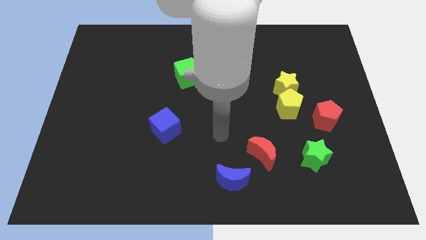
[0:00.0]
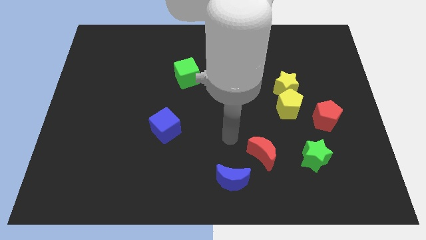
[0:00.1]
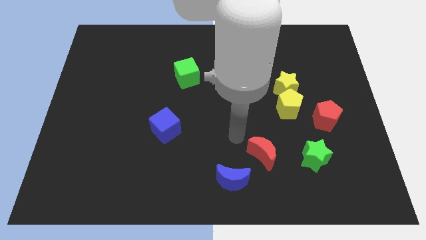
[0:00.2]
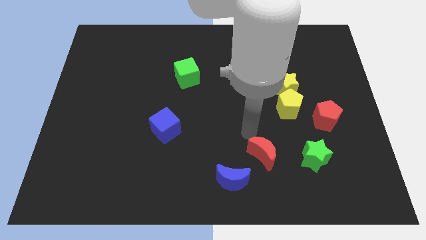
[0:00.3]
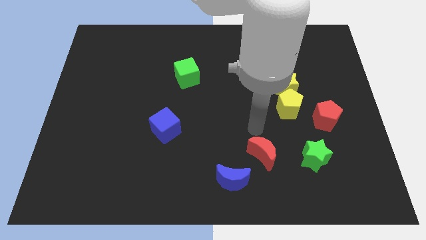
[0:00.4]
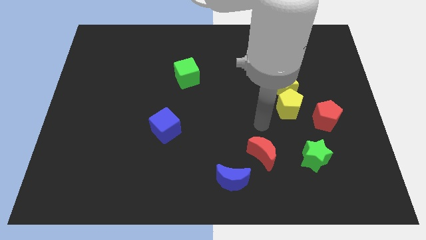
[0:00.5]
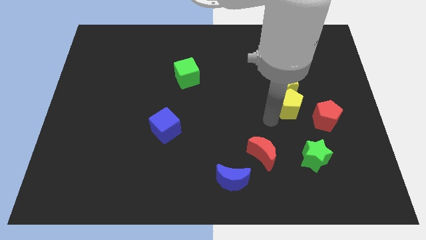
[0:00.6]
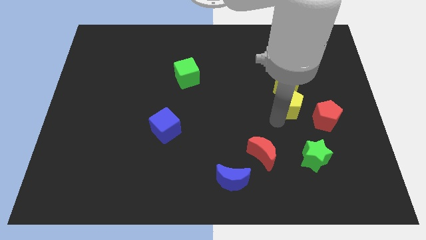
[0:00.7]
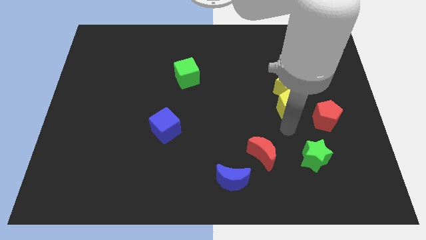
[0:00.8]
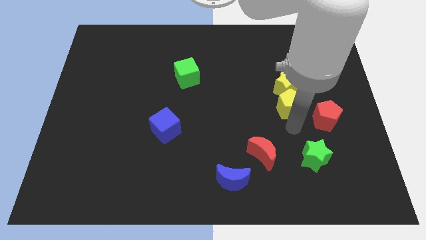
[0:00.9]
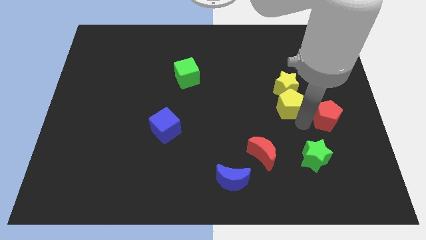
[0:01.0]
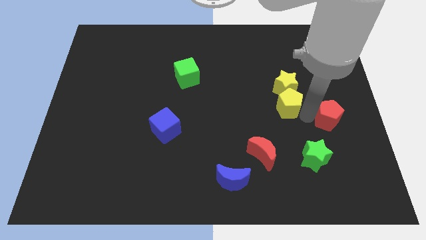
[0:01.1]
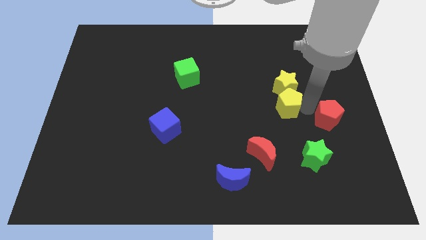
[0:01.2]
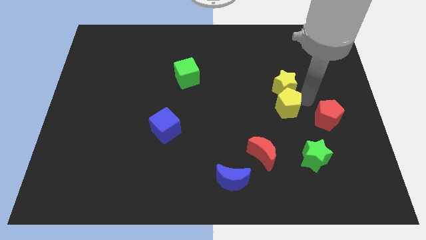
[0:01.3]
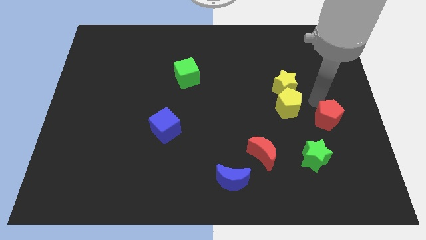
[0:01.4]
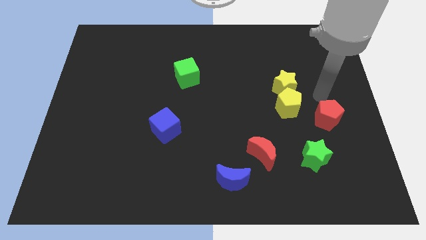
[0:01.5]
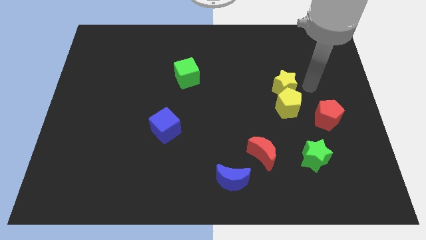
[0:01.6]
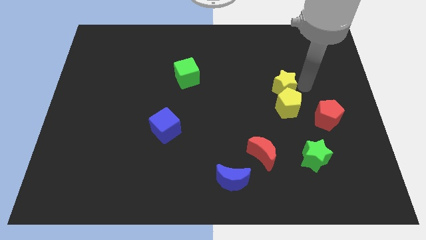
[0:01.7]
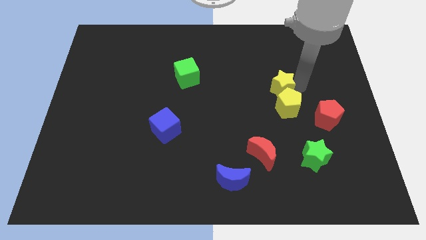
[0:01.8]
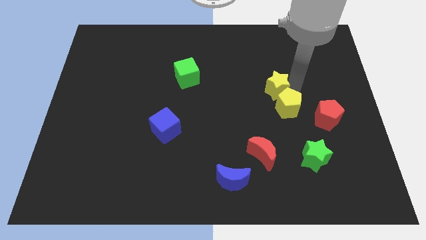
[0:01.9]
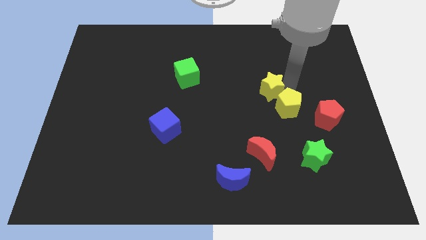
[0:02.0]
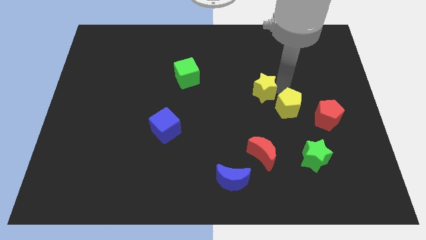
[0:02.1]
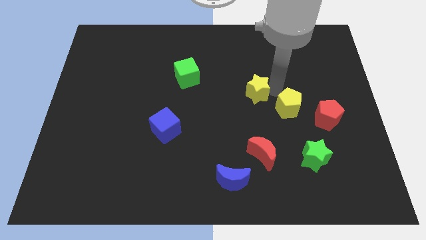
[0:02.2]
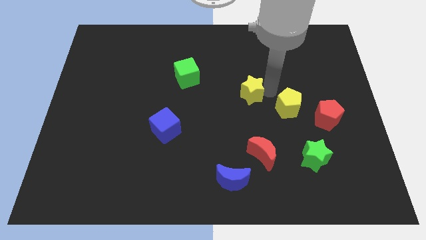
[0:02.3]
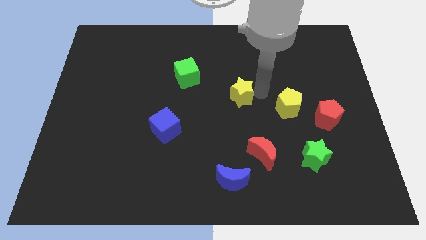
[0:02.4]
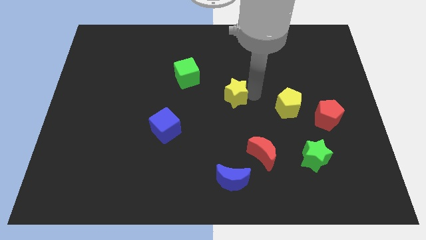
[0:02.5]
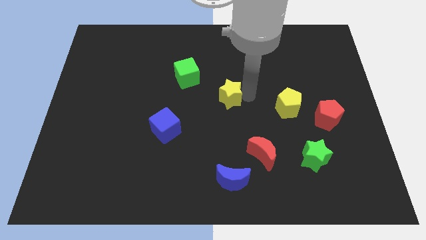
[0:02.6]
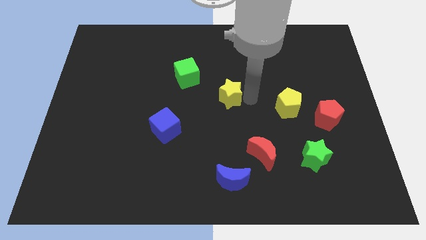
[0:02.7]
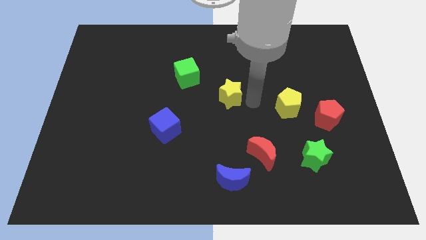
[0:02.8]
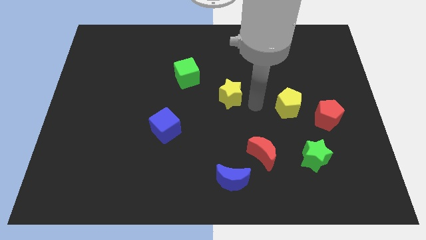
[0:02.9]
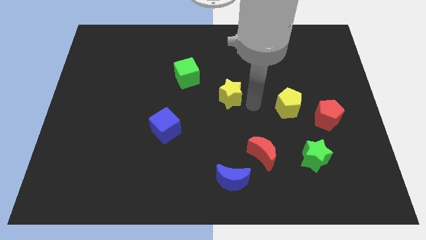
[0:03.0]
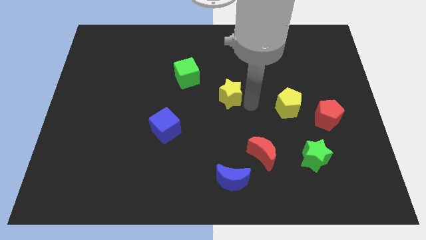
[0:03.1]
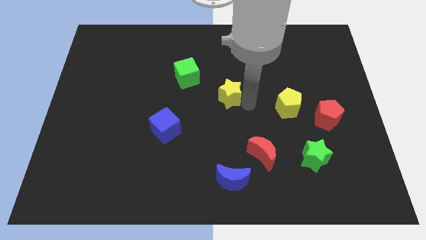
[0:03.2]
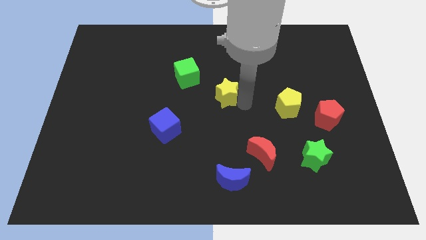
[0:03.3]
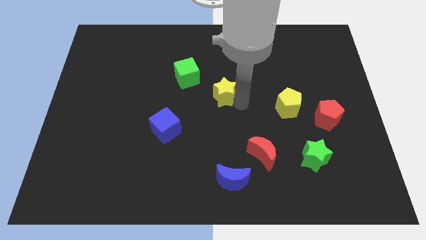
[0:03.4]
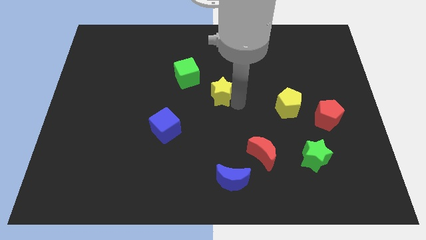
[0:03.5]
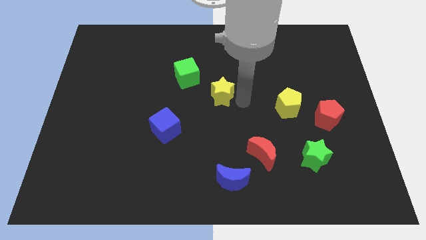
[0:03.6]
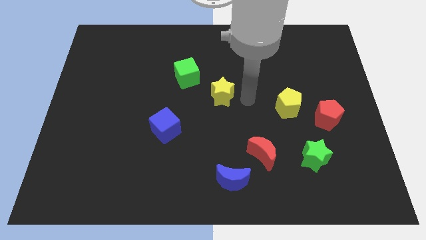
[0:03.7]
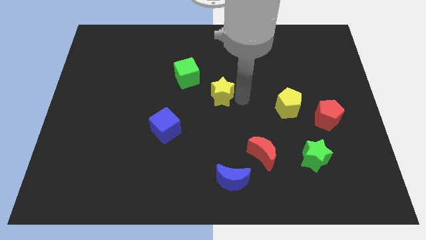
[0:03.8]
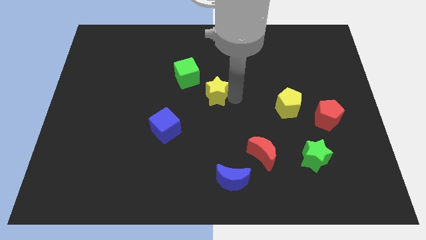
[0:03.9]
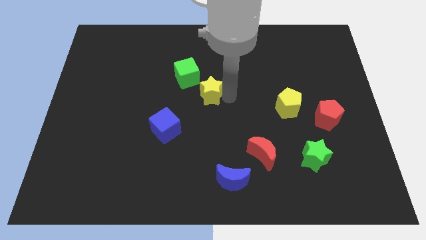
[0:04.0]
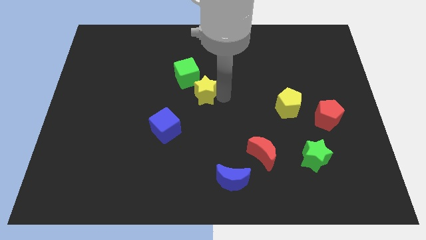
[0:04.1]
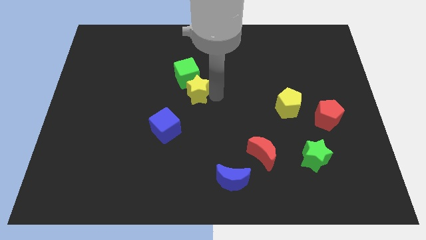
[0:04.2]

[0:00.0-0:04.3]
slide the yellow star left

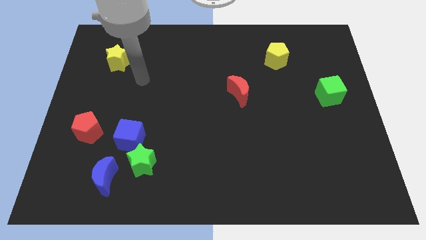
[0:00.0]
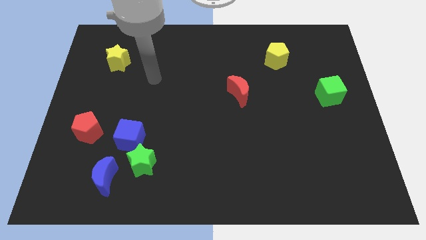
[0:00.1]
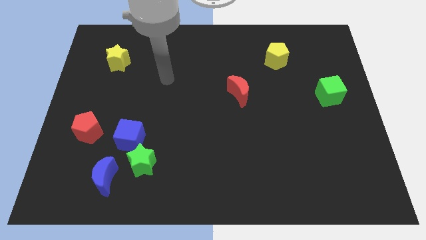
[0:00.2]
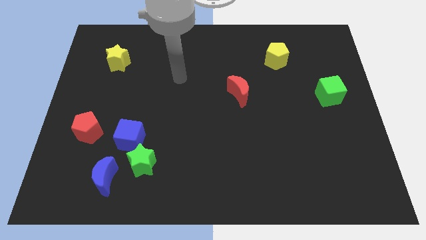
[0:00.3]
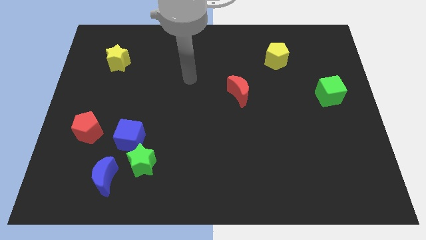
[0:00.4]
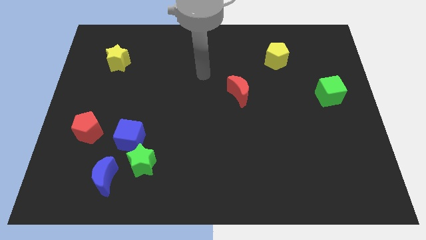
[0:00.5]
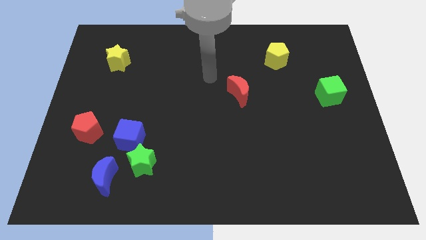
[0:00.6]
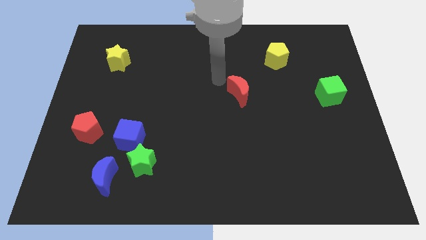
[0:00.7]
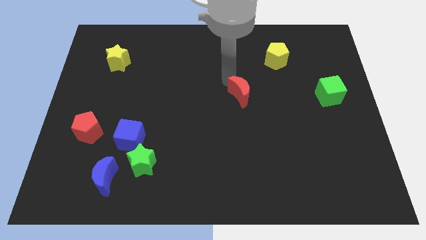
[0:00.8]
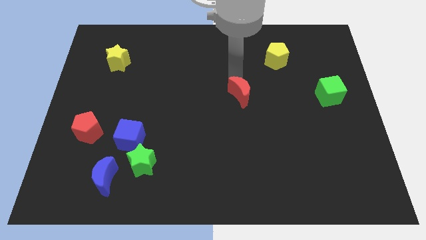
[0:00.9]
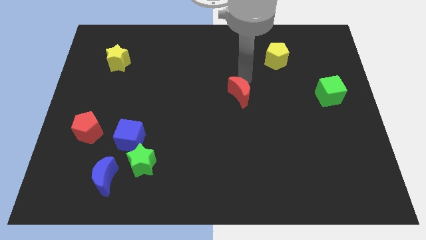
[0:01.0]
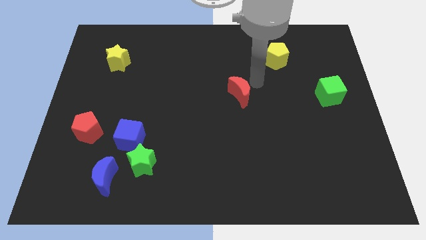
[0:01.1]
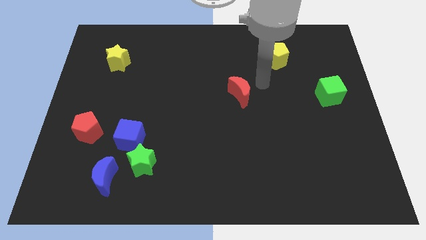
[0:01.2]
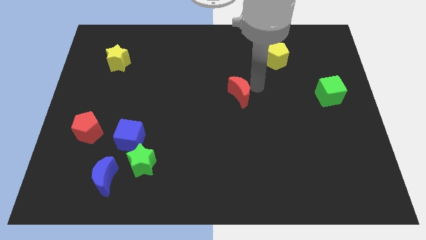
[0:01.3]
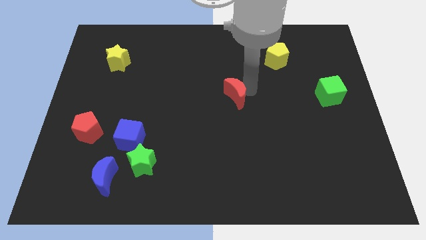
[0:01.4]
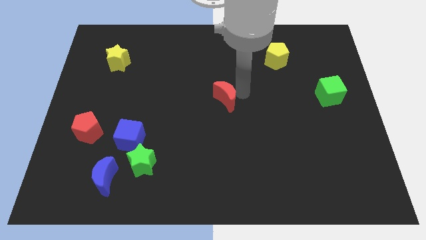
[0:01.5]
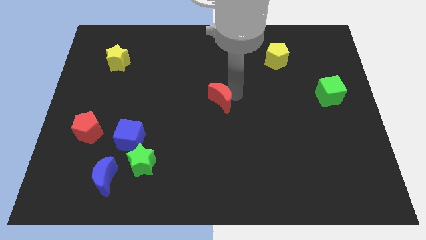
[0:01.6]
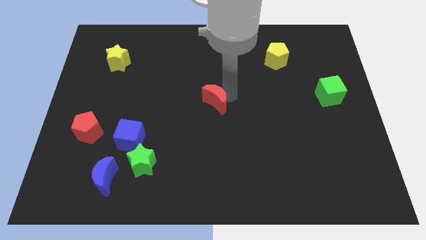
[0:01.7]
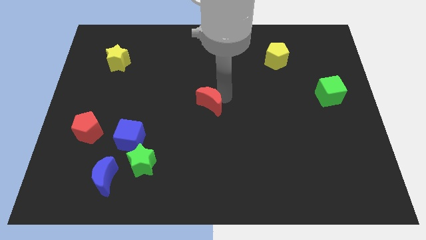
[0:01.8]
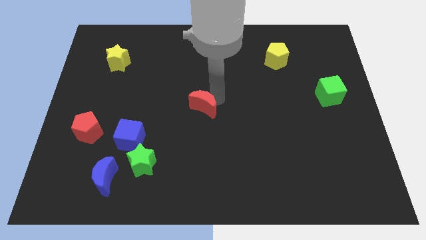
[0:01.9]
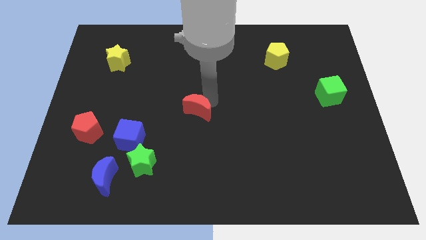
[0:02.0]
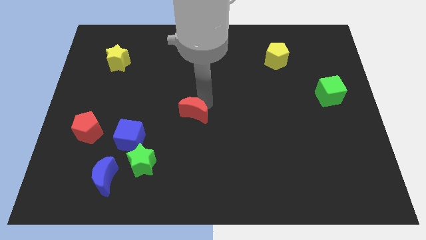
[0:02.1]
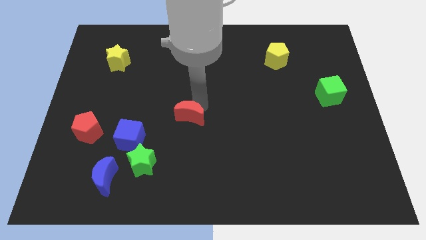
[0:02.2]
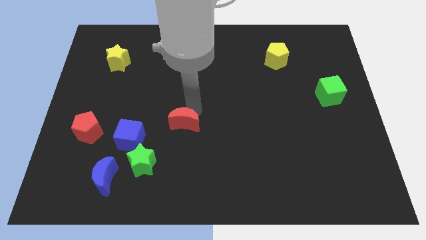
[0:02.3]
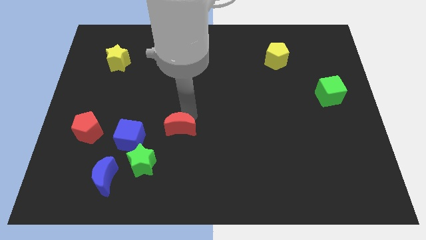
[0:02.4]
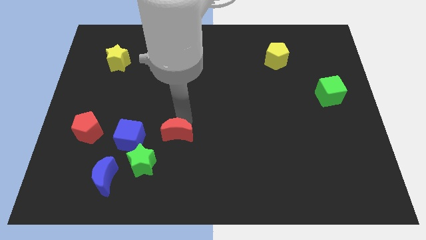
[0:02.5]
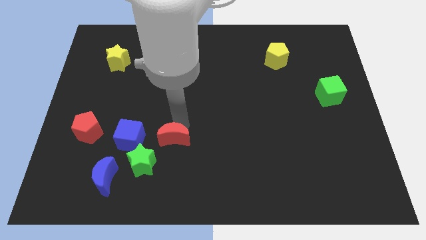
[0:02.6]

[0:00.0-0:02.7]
slide the red moon downwards and then left

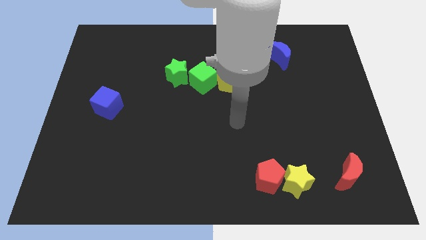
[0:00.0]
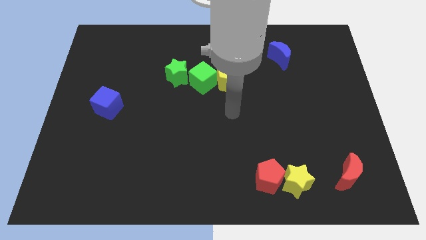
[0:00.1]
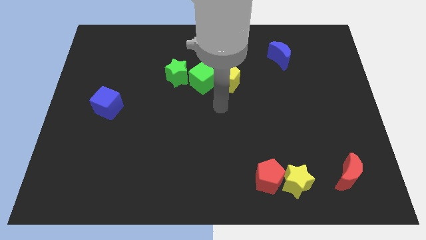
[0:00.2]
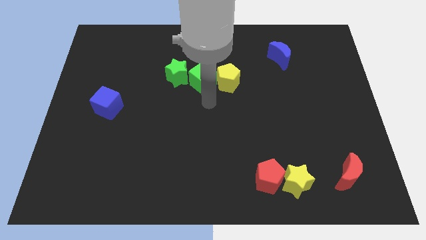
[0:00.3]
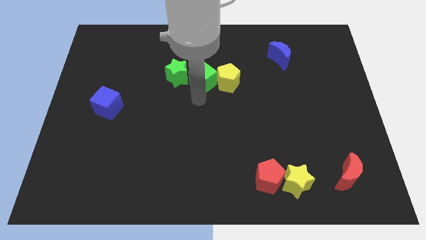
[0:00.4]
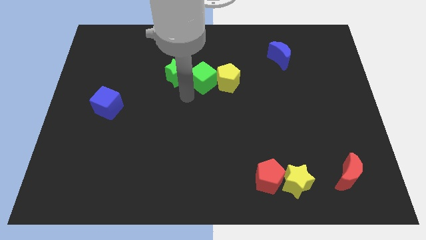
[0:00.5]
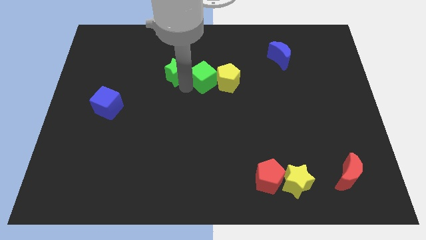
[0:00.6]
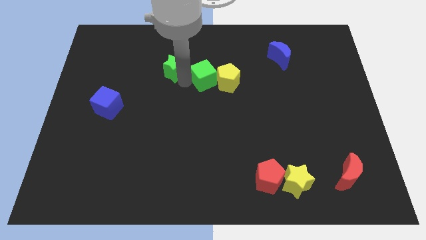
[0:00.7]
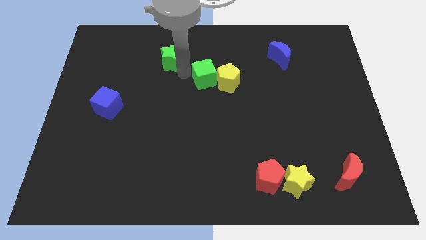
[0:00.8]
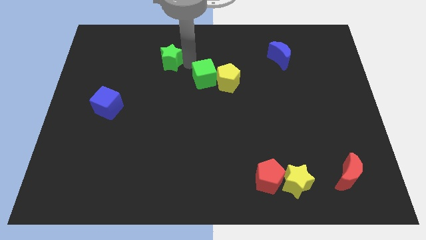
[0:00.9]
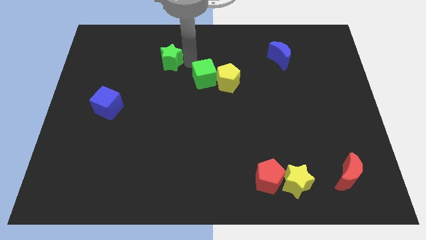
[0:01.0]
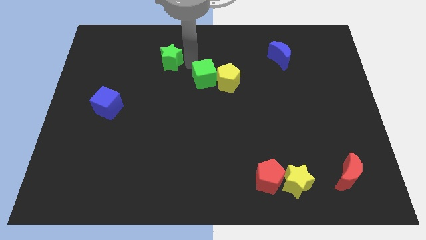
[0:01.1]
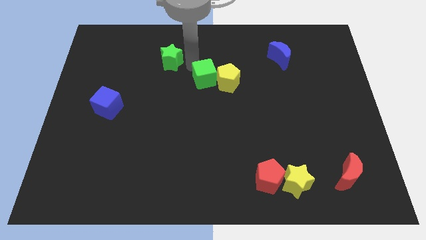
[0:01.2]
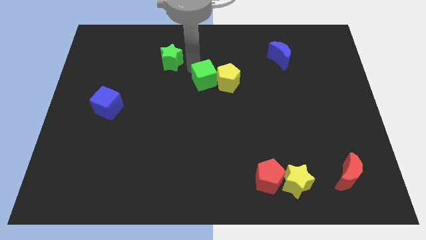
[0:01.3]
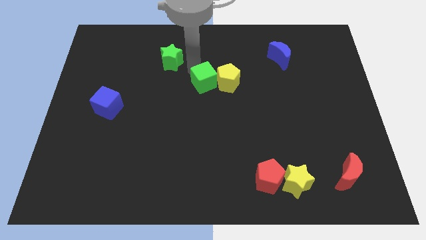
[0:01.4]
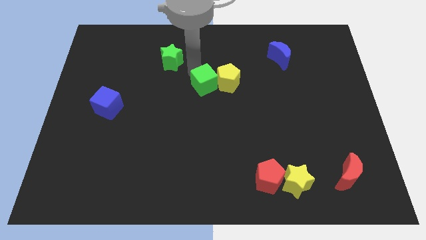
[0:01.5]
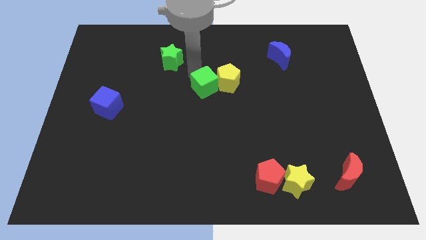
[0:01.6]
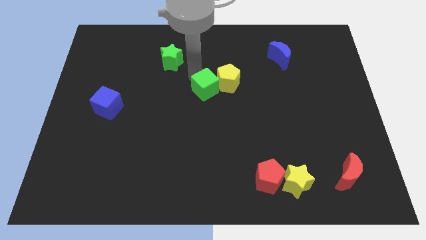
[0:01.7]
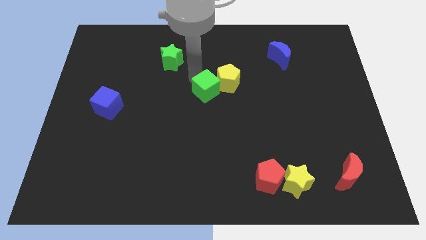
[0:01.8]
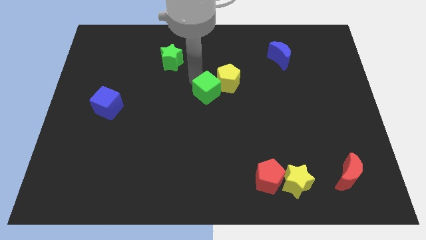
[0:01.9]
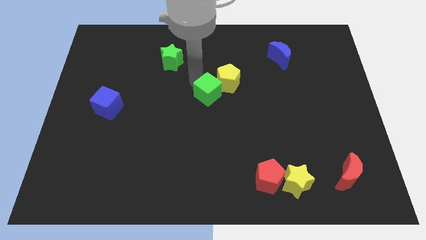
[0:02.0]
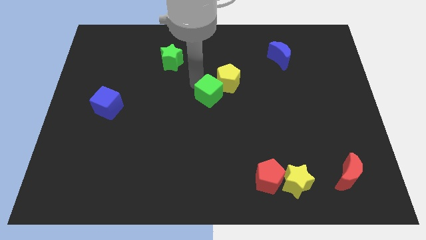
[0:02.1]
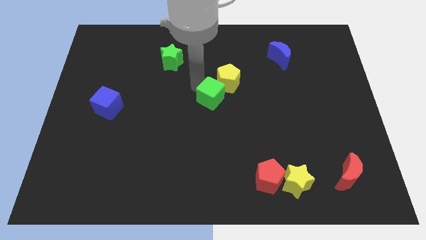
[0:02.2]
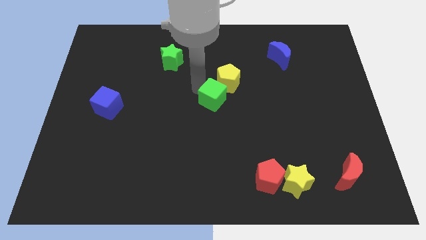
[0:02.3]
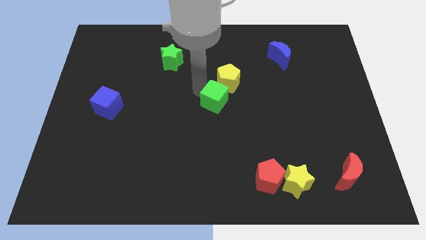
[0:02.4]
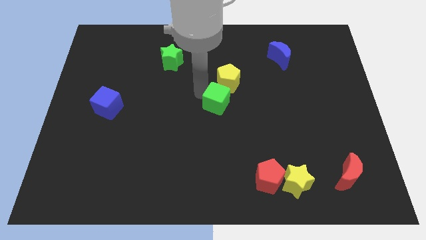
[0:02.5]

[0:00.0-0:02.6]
slightly slide the green cube downwards and right diagonally
